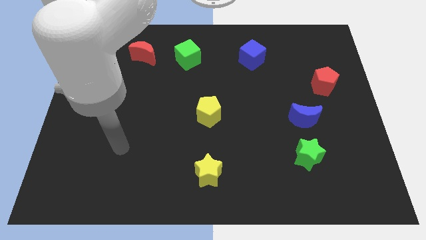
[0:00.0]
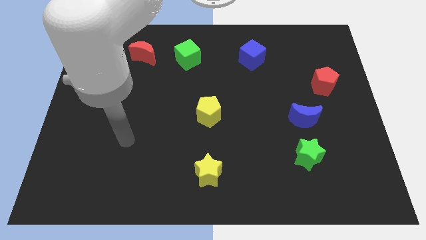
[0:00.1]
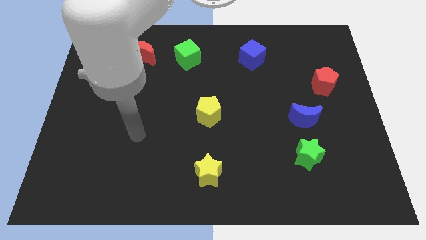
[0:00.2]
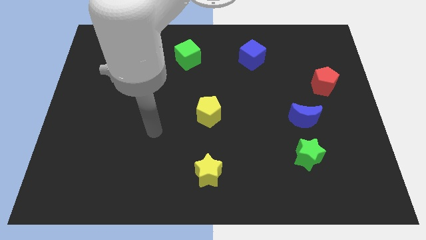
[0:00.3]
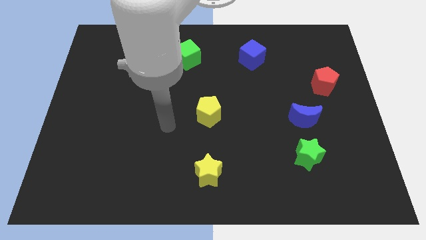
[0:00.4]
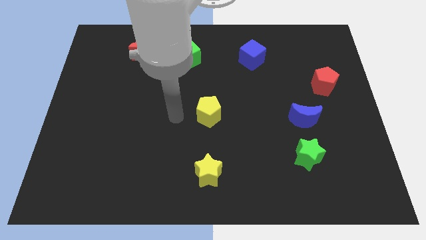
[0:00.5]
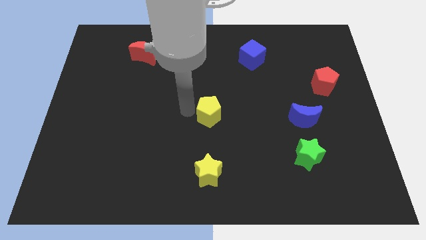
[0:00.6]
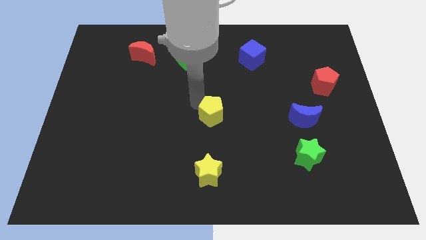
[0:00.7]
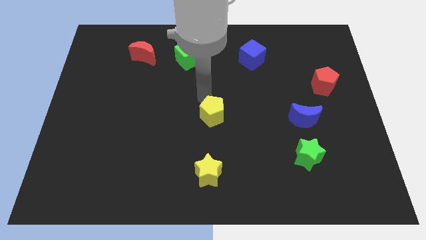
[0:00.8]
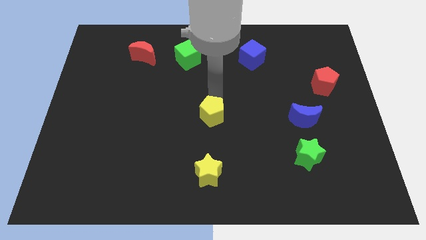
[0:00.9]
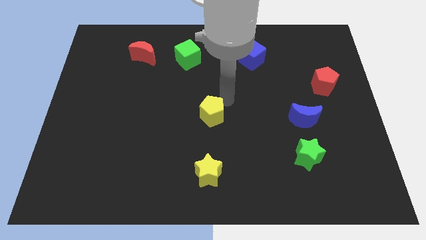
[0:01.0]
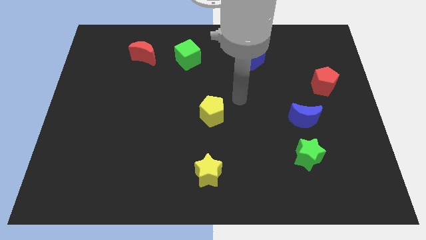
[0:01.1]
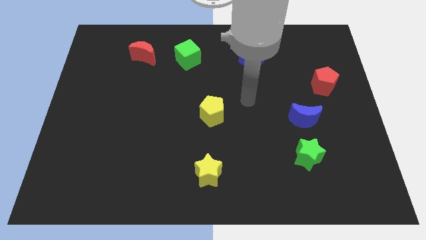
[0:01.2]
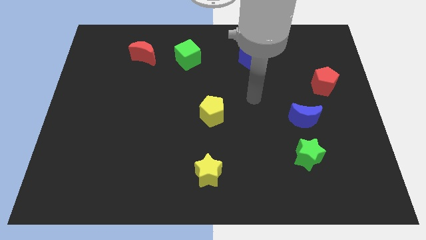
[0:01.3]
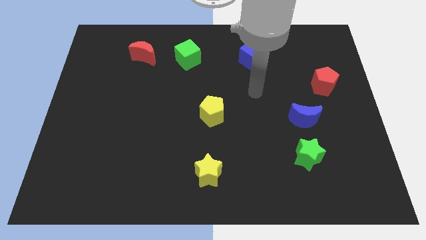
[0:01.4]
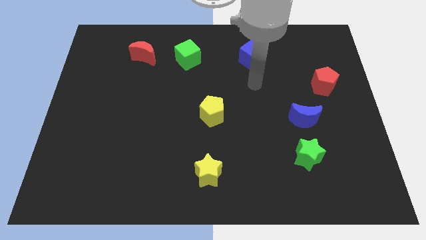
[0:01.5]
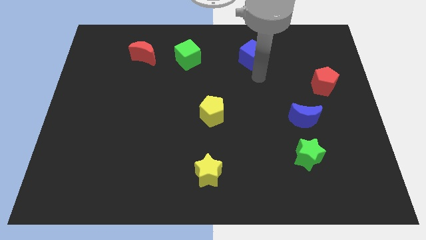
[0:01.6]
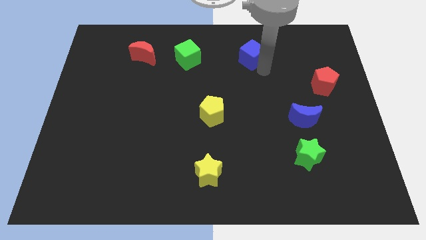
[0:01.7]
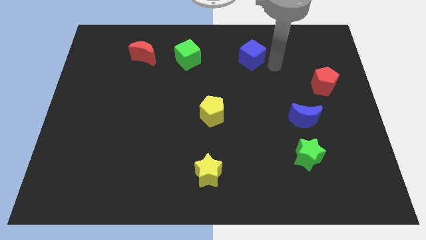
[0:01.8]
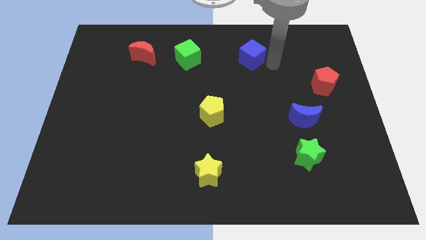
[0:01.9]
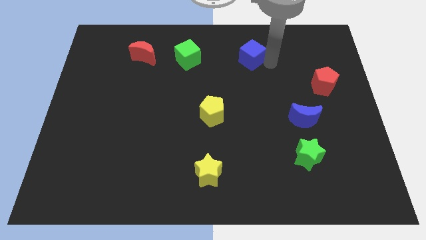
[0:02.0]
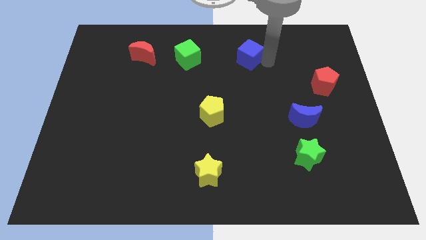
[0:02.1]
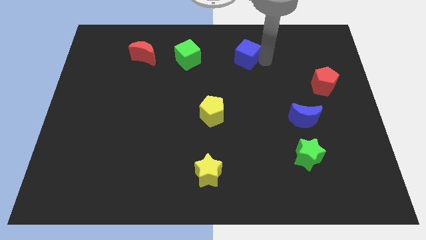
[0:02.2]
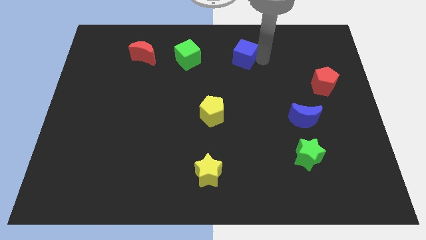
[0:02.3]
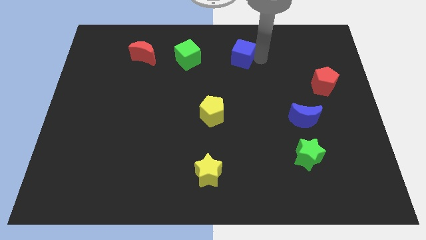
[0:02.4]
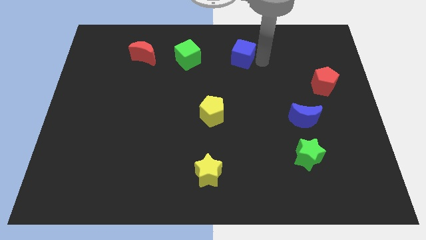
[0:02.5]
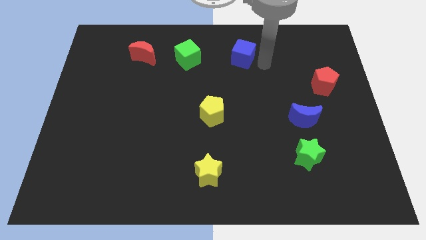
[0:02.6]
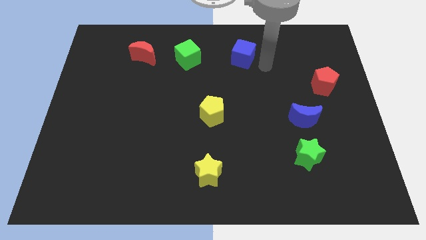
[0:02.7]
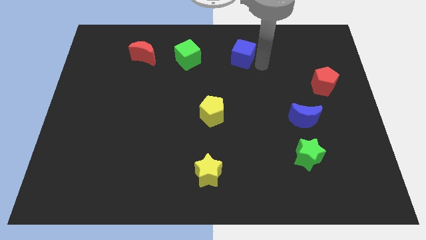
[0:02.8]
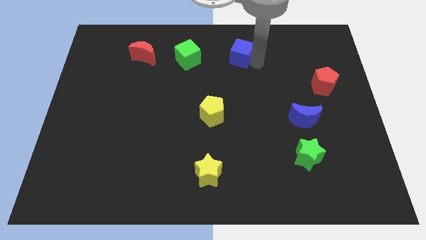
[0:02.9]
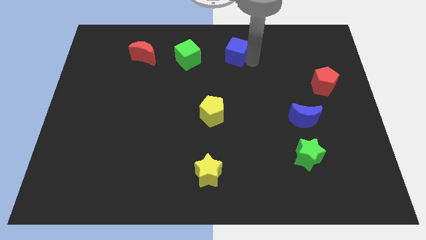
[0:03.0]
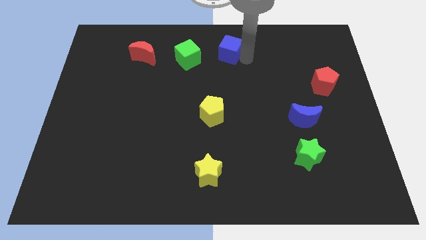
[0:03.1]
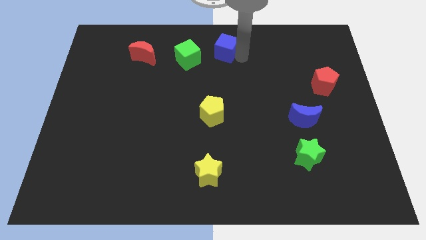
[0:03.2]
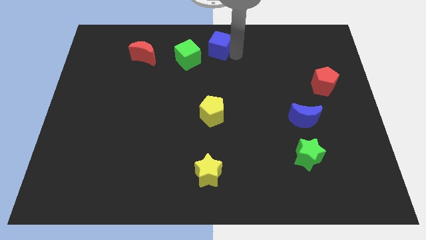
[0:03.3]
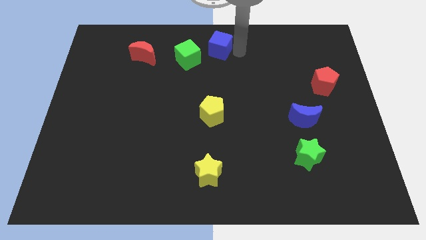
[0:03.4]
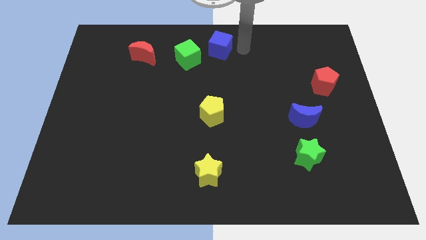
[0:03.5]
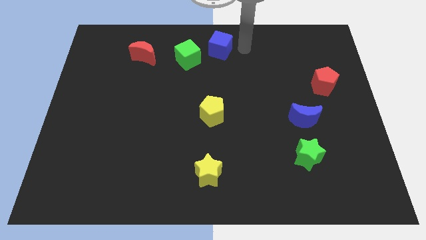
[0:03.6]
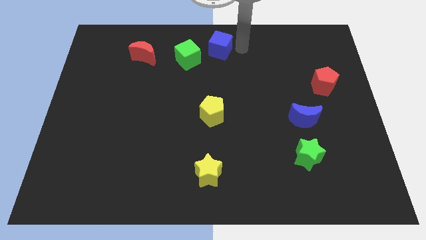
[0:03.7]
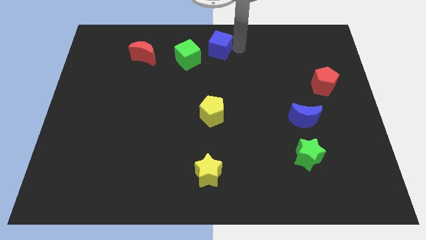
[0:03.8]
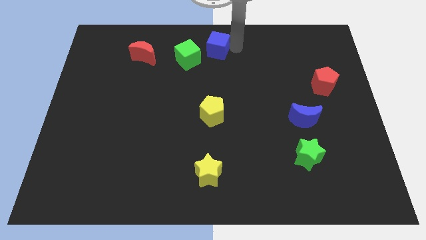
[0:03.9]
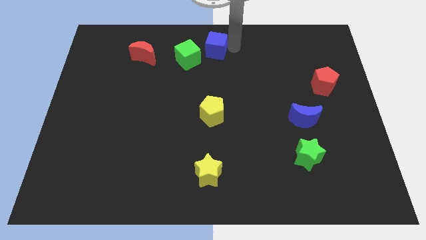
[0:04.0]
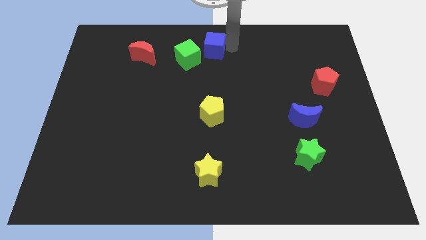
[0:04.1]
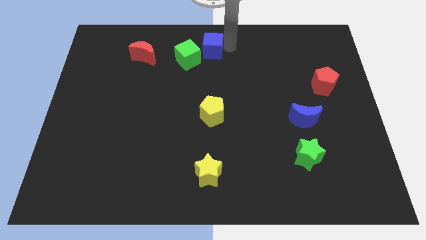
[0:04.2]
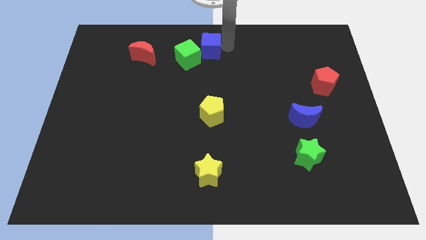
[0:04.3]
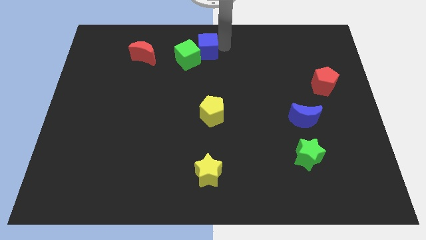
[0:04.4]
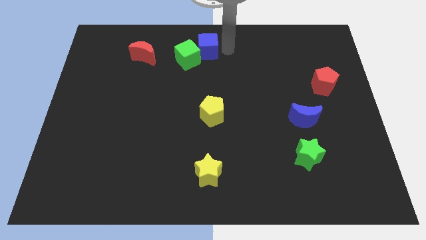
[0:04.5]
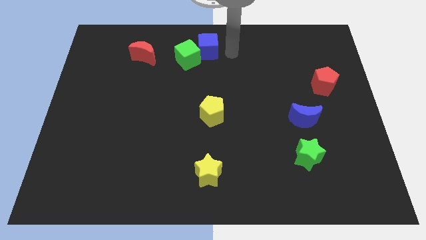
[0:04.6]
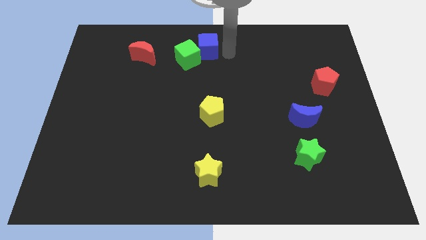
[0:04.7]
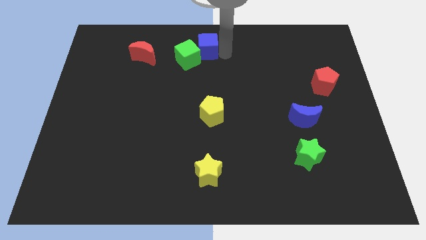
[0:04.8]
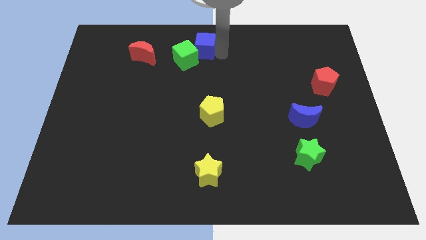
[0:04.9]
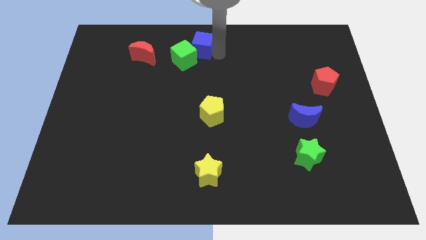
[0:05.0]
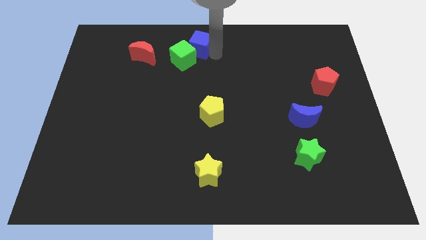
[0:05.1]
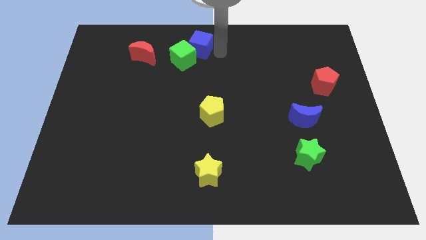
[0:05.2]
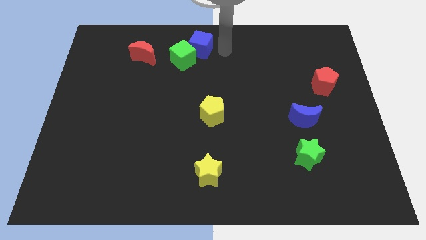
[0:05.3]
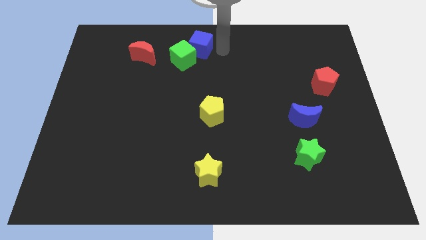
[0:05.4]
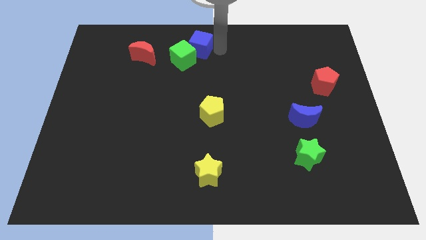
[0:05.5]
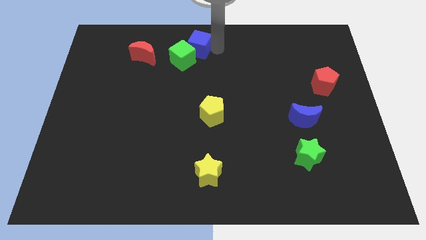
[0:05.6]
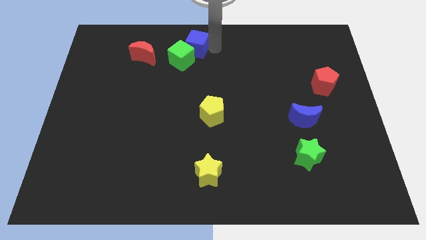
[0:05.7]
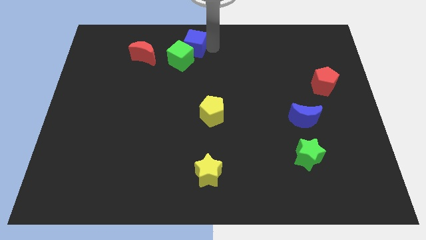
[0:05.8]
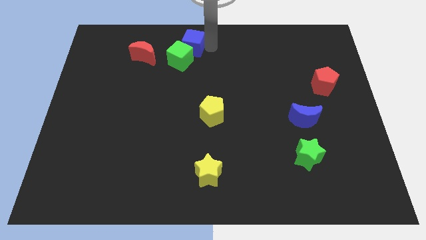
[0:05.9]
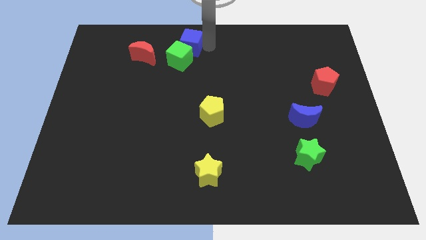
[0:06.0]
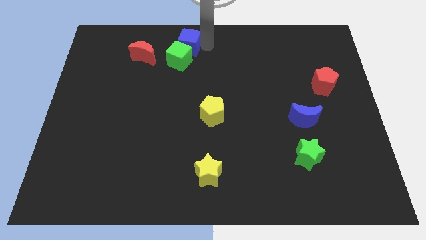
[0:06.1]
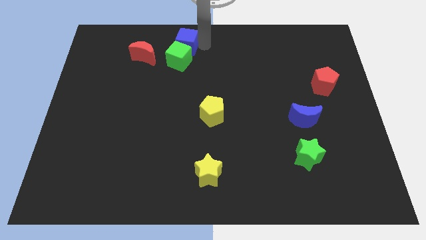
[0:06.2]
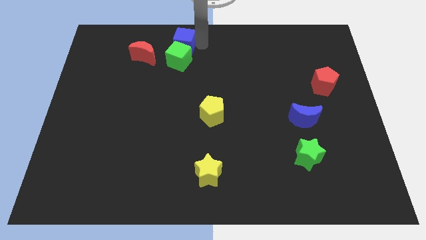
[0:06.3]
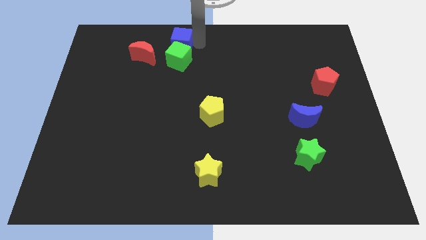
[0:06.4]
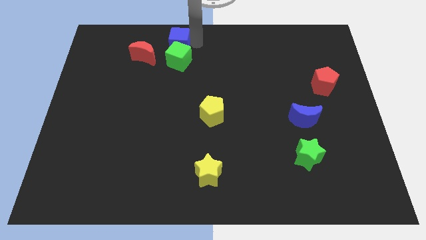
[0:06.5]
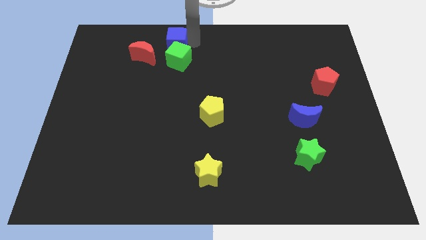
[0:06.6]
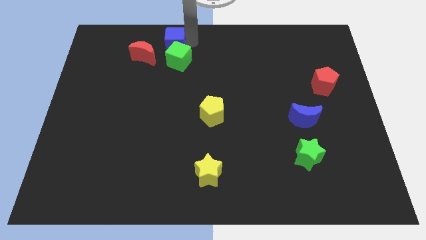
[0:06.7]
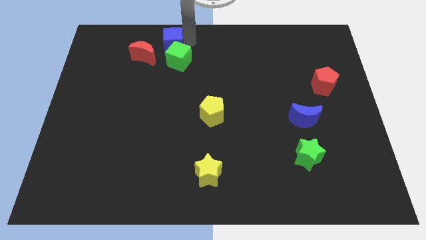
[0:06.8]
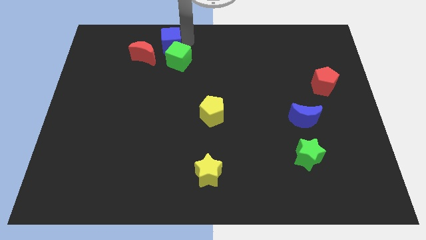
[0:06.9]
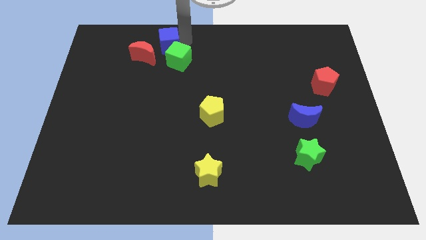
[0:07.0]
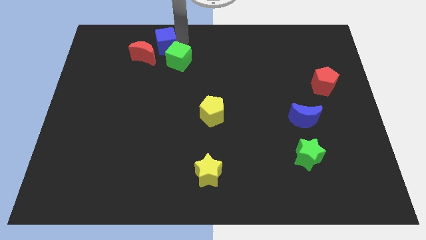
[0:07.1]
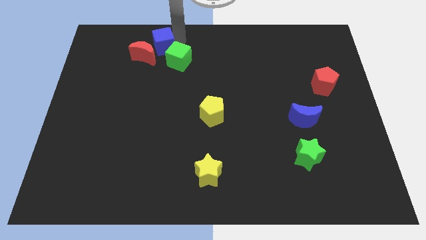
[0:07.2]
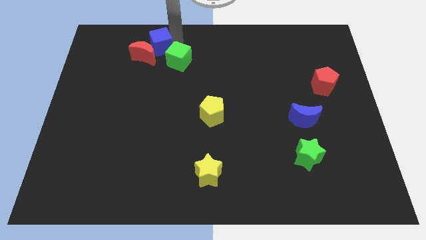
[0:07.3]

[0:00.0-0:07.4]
push the blue cube towards the red moon
